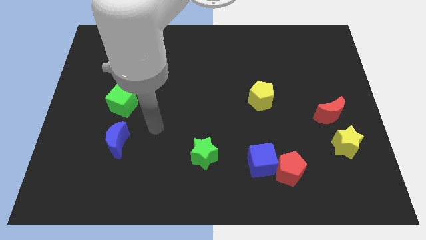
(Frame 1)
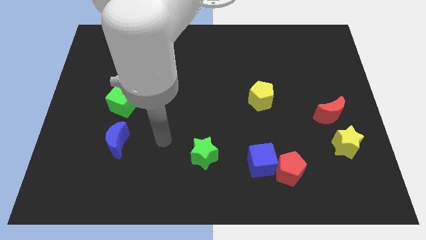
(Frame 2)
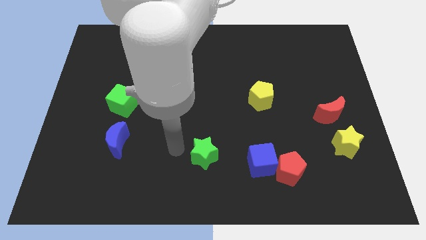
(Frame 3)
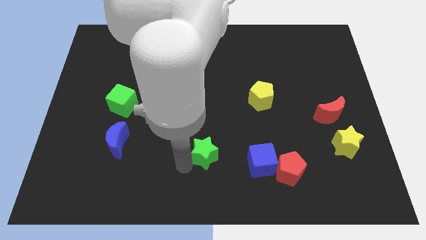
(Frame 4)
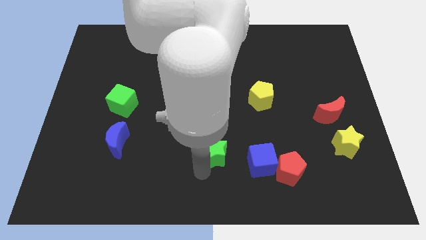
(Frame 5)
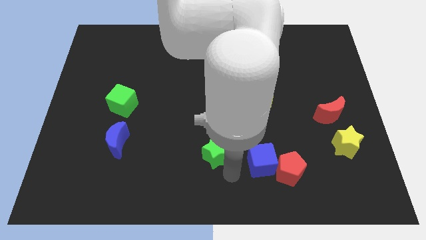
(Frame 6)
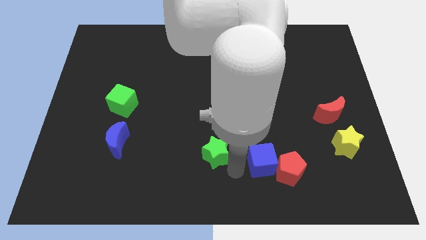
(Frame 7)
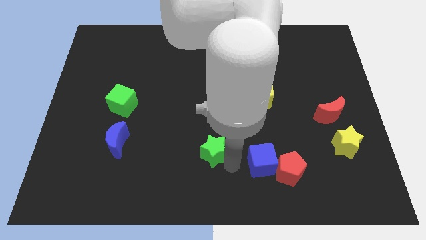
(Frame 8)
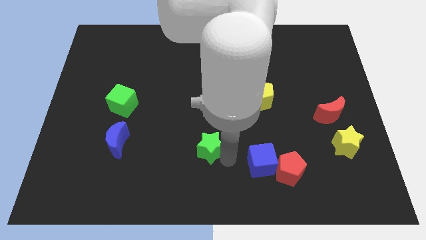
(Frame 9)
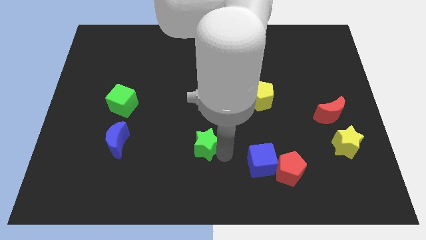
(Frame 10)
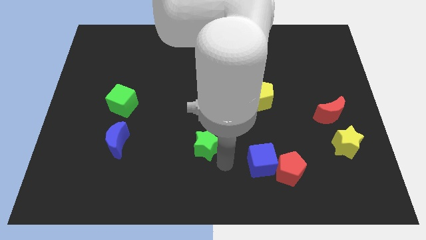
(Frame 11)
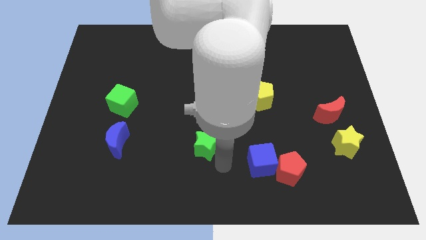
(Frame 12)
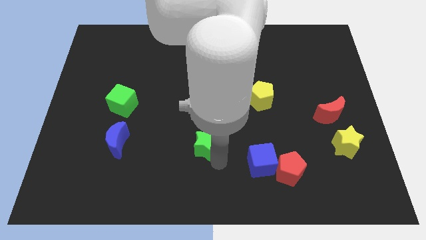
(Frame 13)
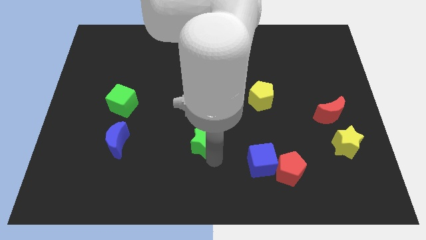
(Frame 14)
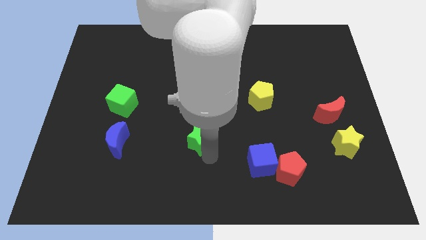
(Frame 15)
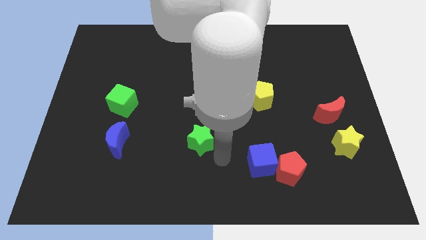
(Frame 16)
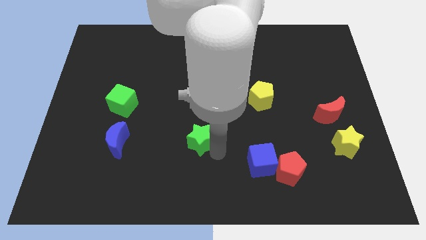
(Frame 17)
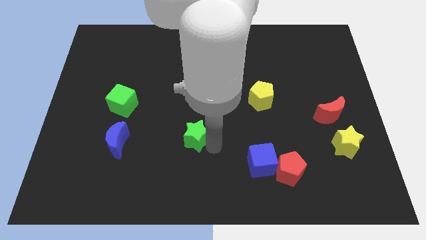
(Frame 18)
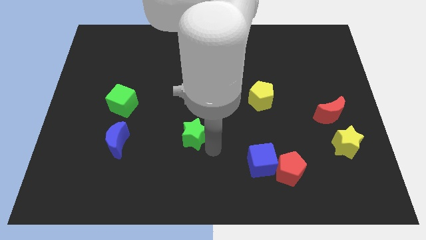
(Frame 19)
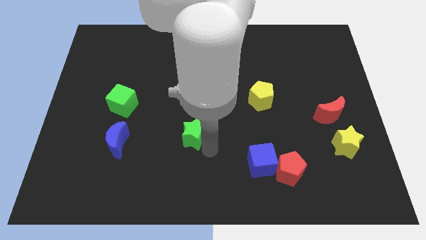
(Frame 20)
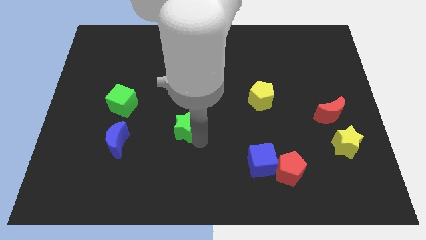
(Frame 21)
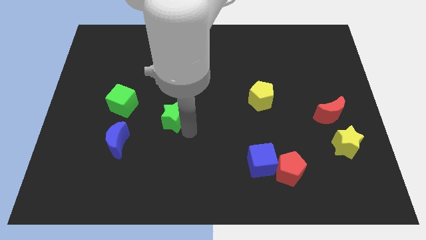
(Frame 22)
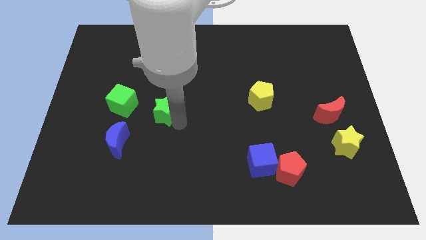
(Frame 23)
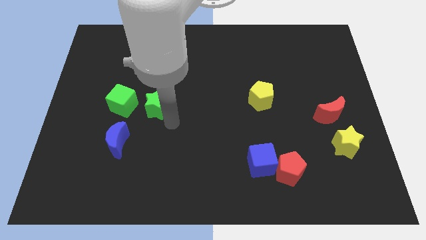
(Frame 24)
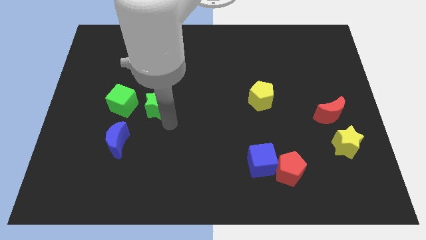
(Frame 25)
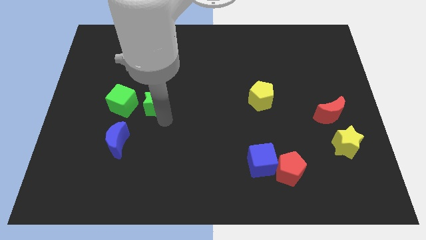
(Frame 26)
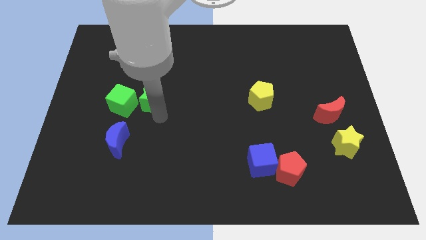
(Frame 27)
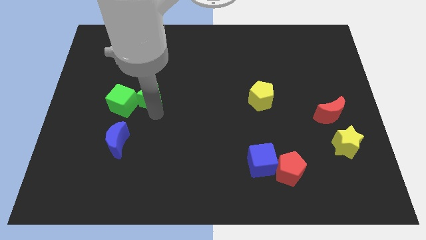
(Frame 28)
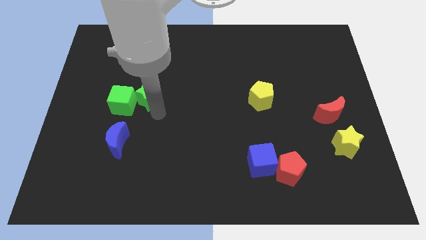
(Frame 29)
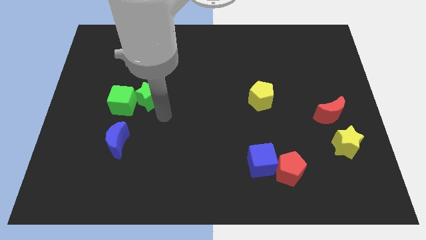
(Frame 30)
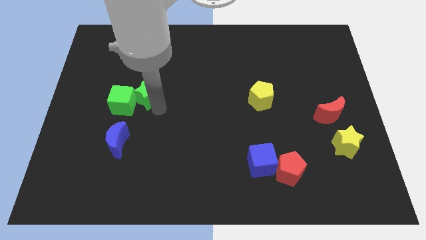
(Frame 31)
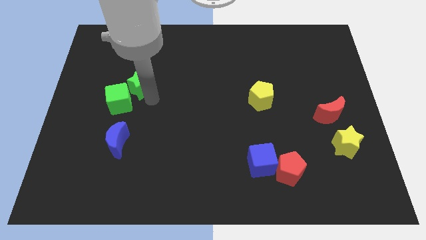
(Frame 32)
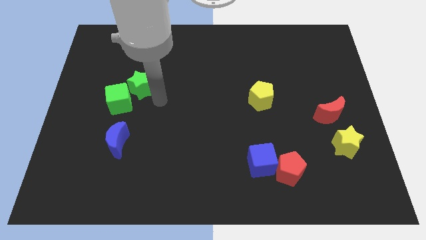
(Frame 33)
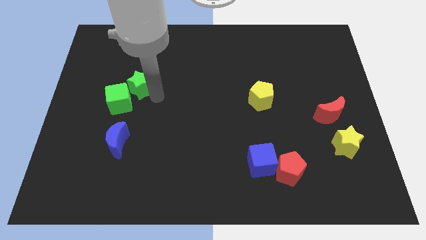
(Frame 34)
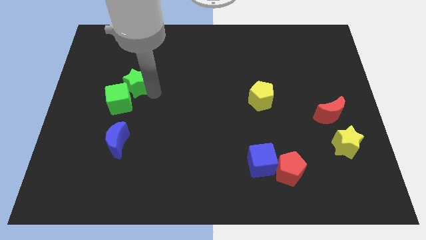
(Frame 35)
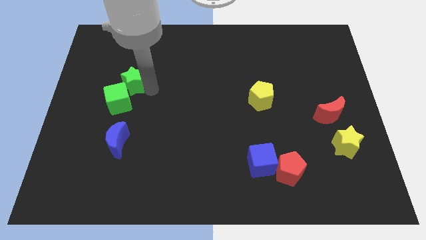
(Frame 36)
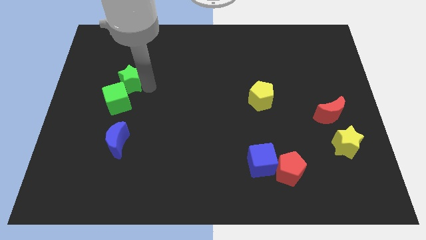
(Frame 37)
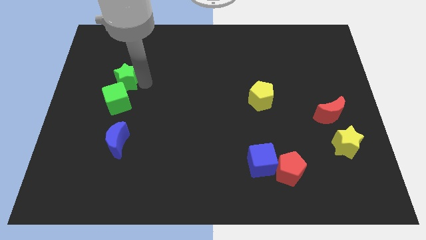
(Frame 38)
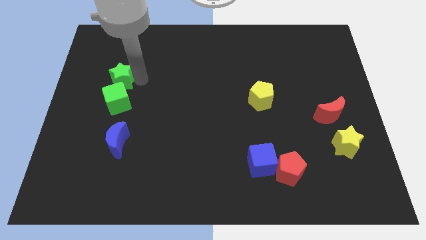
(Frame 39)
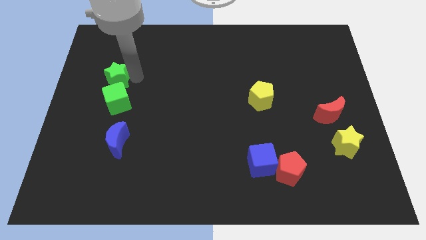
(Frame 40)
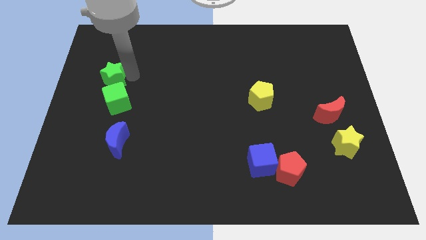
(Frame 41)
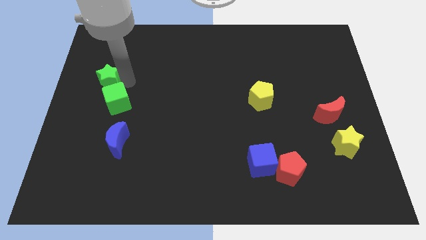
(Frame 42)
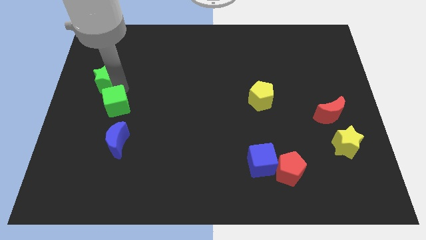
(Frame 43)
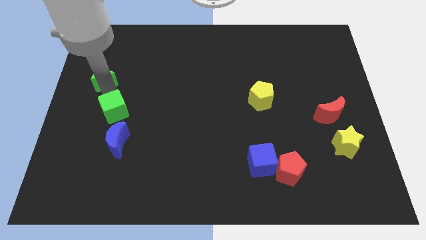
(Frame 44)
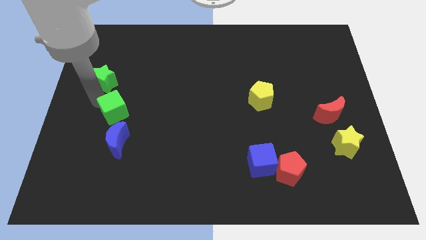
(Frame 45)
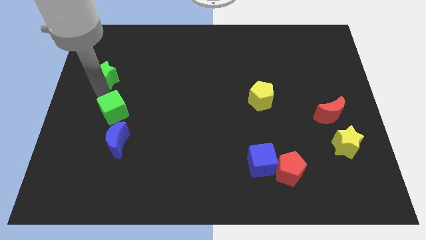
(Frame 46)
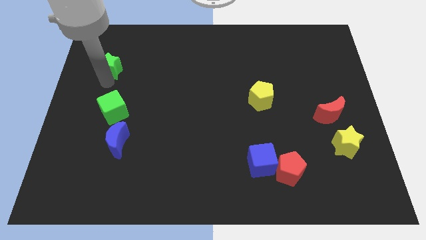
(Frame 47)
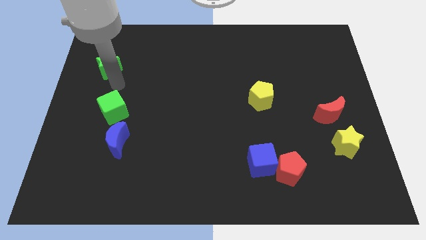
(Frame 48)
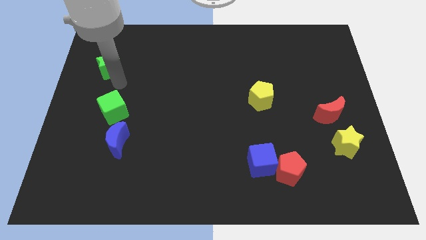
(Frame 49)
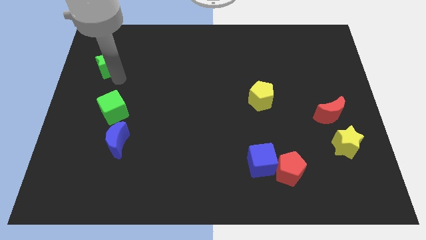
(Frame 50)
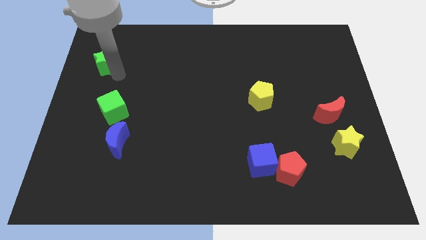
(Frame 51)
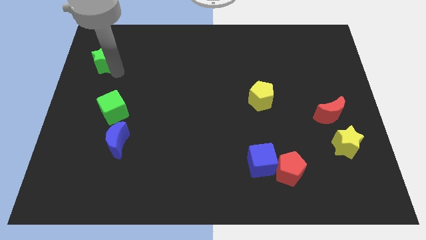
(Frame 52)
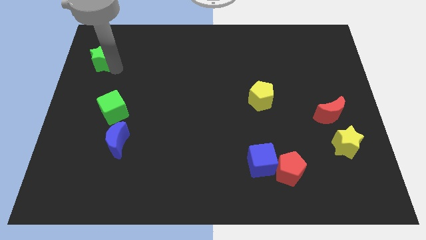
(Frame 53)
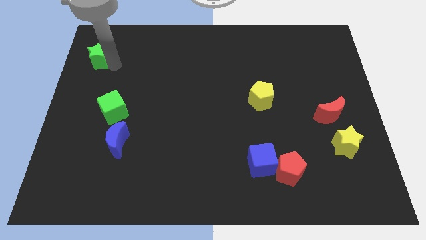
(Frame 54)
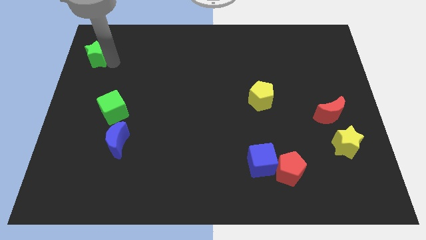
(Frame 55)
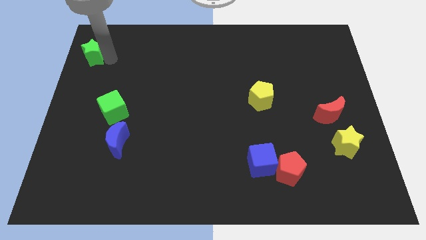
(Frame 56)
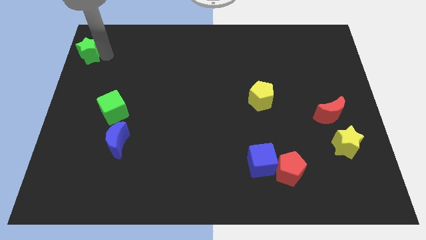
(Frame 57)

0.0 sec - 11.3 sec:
push the green star to the upper left corner

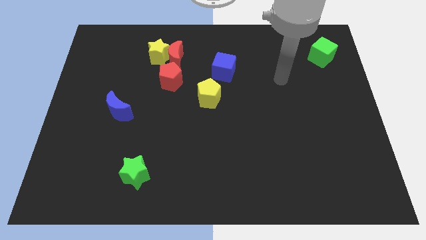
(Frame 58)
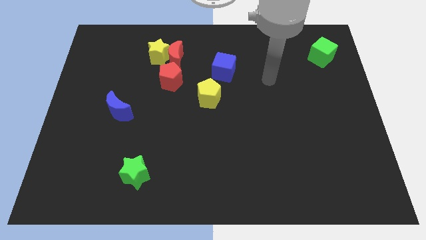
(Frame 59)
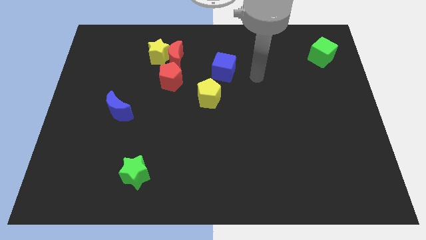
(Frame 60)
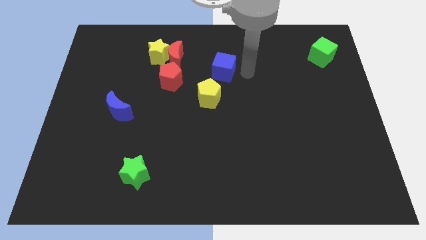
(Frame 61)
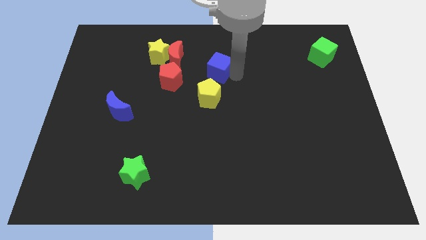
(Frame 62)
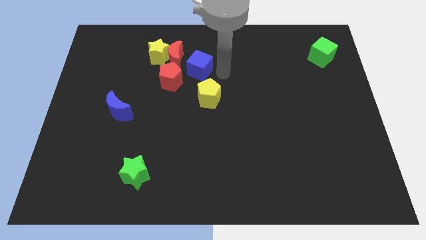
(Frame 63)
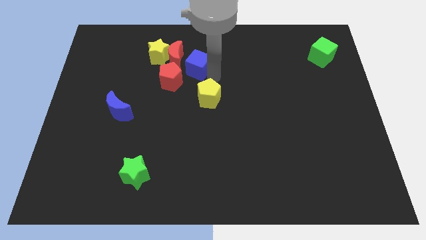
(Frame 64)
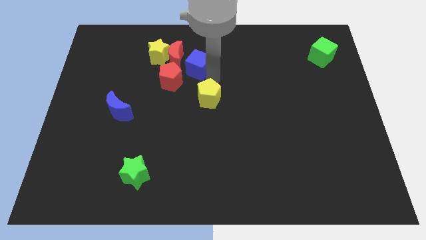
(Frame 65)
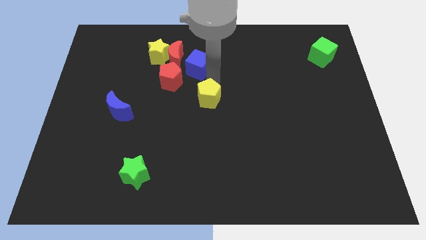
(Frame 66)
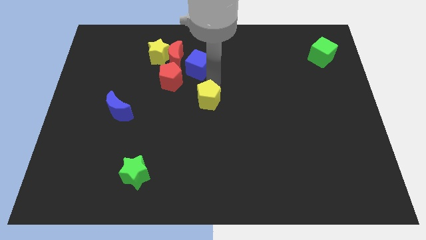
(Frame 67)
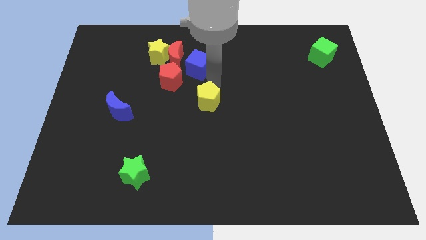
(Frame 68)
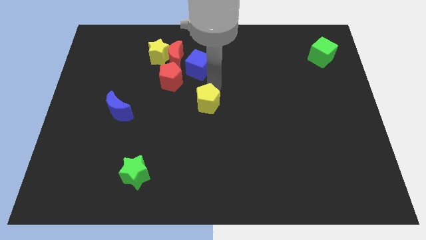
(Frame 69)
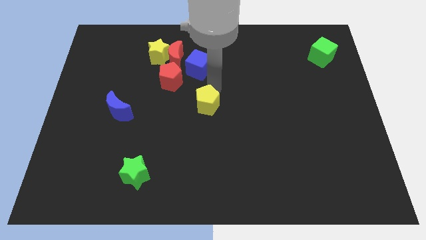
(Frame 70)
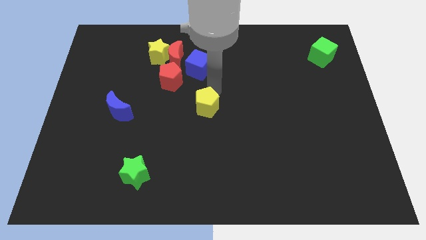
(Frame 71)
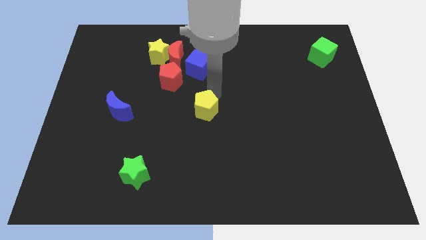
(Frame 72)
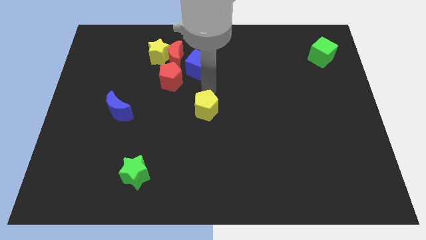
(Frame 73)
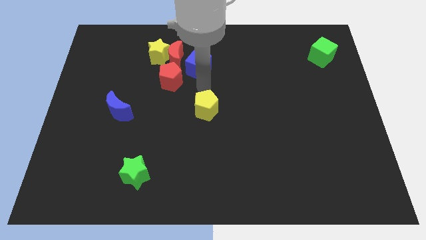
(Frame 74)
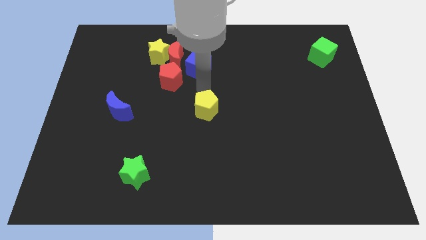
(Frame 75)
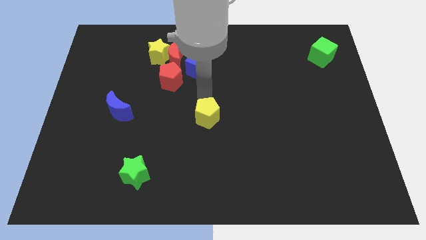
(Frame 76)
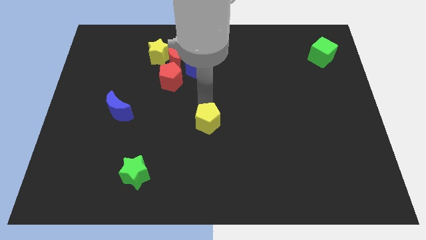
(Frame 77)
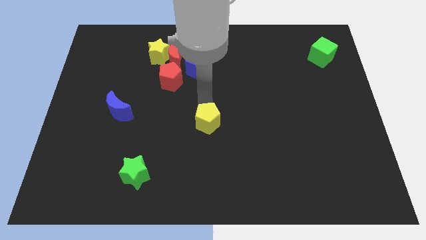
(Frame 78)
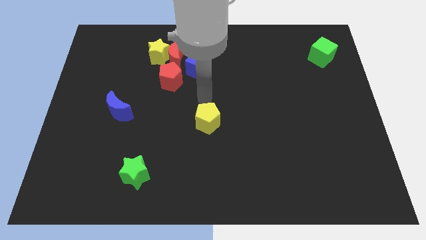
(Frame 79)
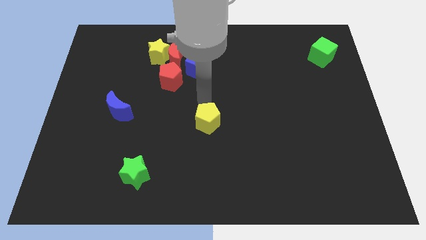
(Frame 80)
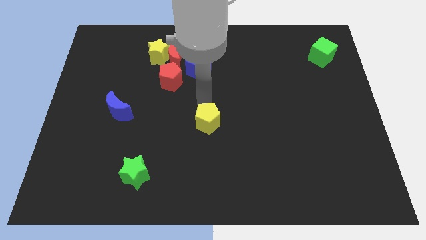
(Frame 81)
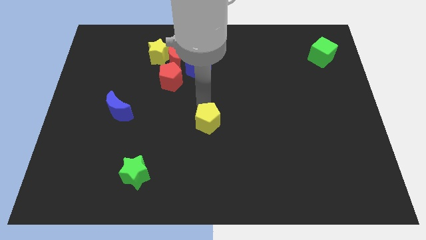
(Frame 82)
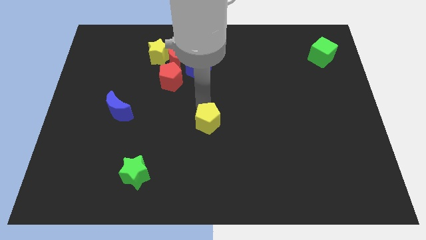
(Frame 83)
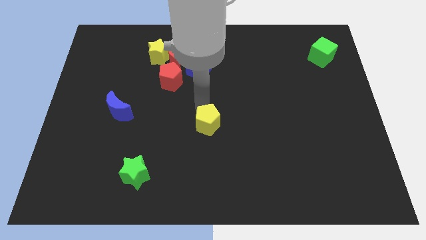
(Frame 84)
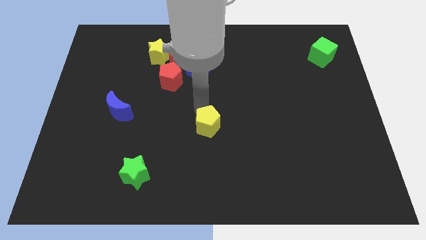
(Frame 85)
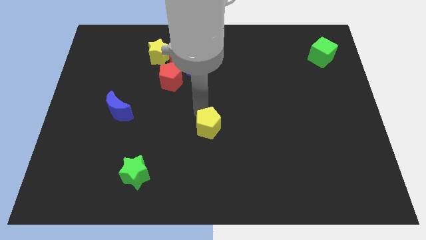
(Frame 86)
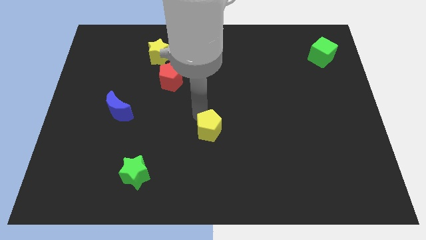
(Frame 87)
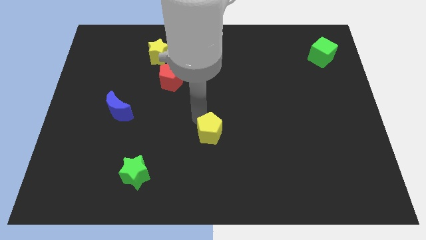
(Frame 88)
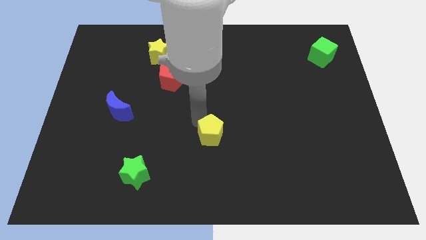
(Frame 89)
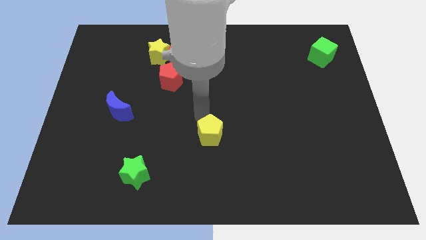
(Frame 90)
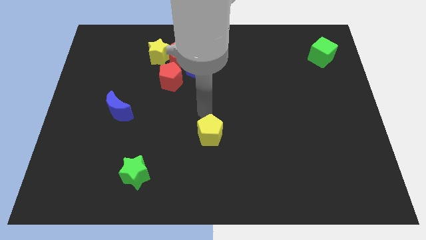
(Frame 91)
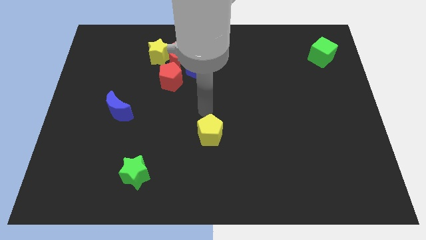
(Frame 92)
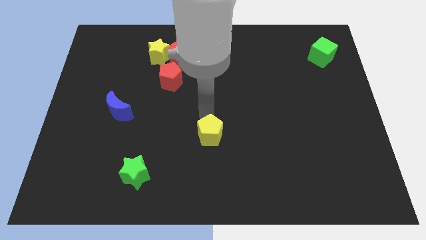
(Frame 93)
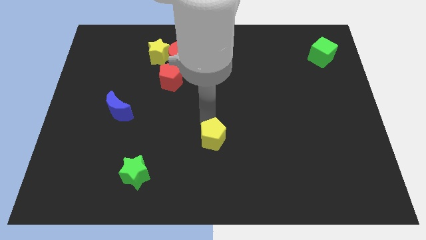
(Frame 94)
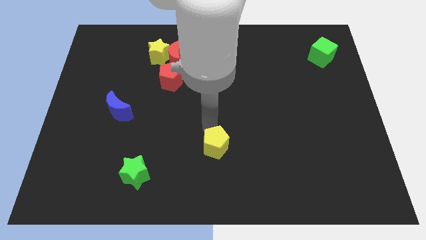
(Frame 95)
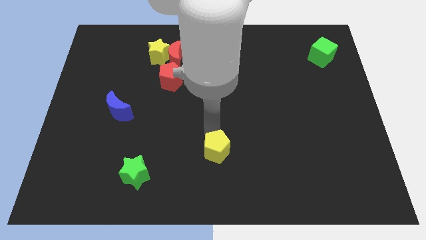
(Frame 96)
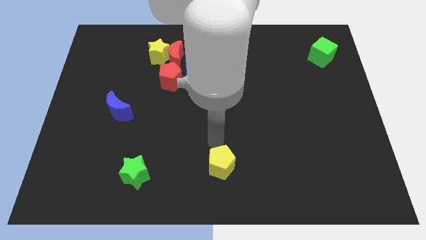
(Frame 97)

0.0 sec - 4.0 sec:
move the yellow pentagon to the bottom side
